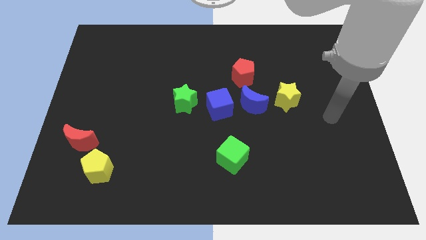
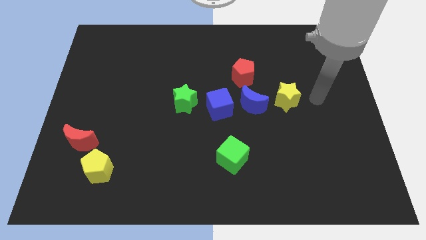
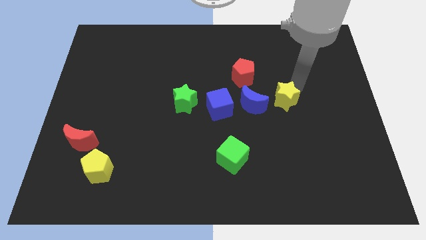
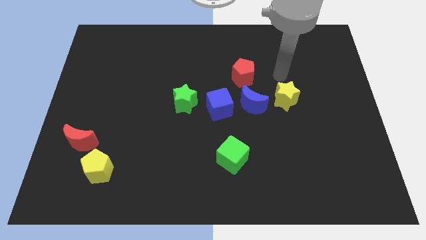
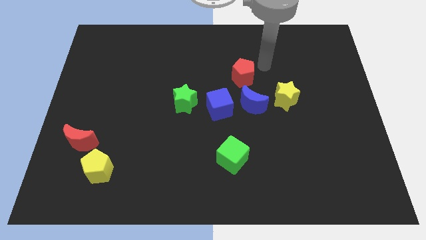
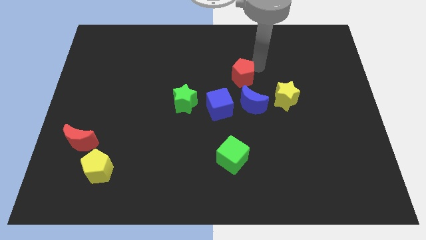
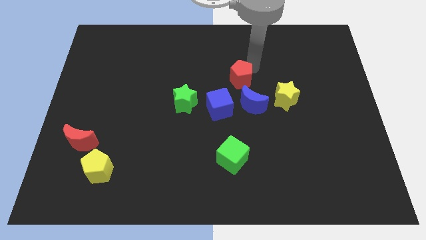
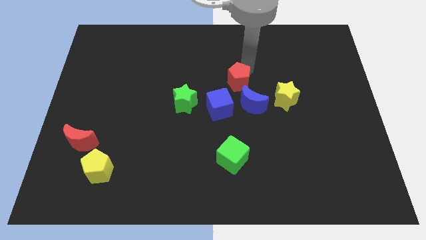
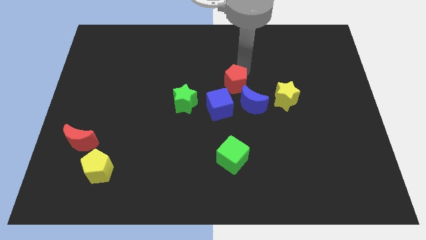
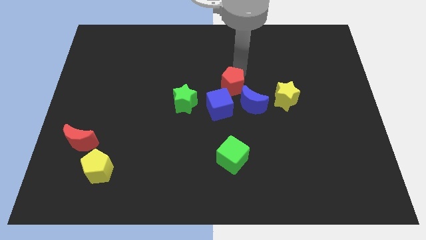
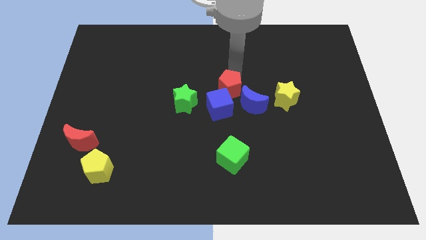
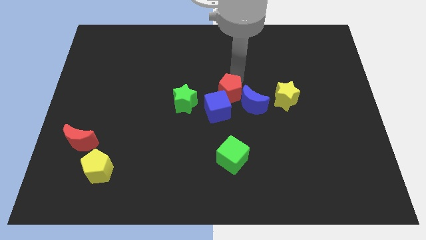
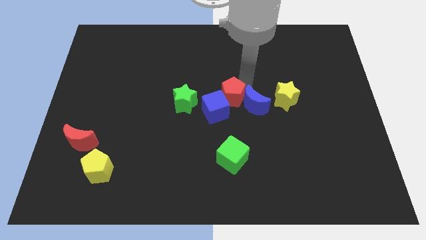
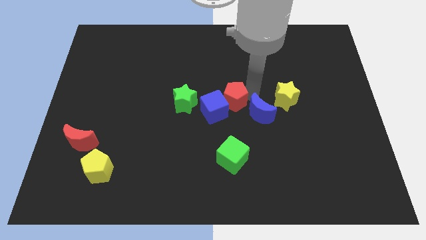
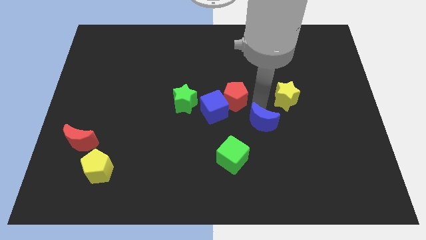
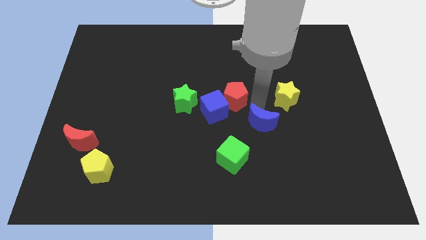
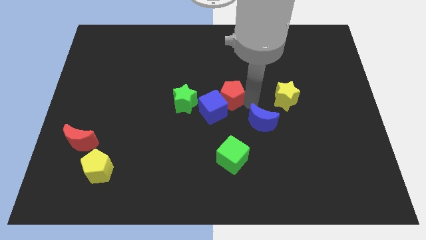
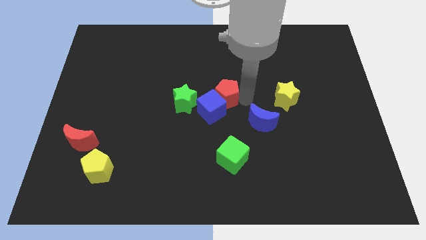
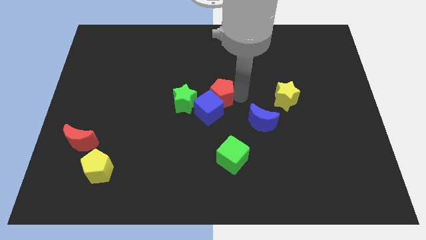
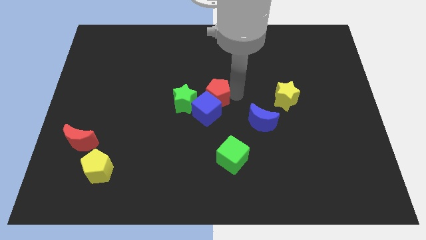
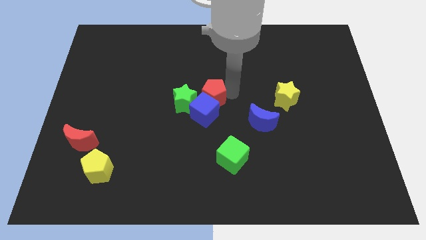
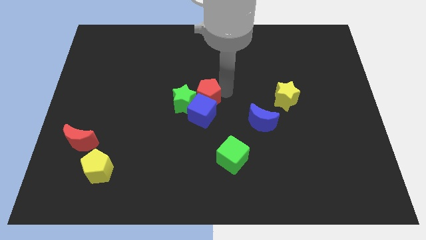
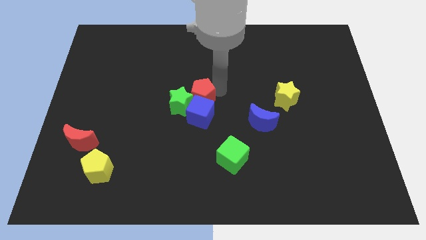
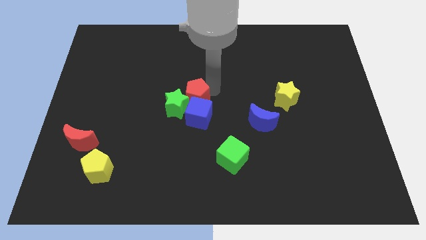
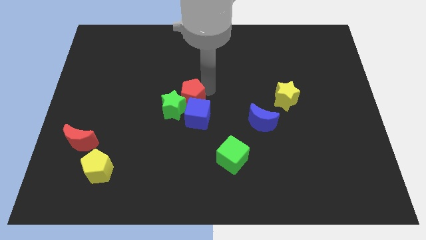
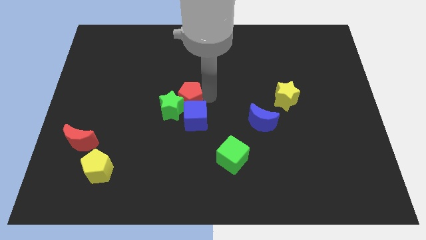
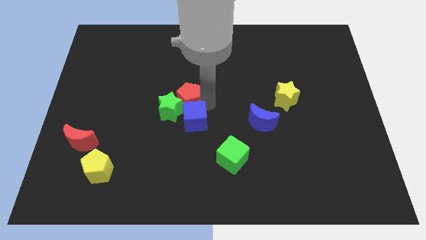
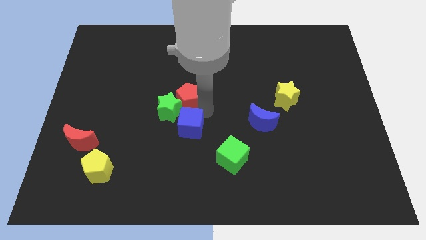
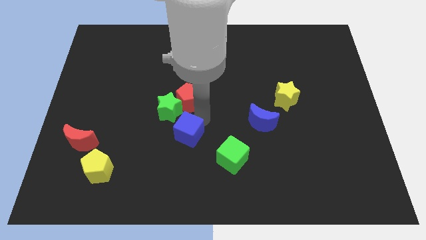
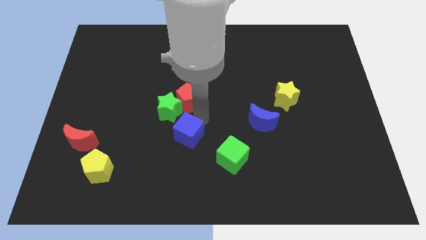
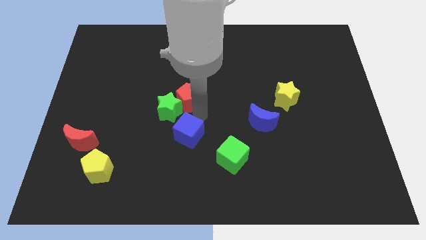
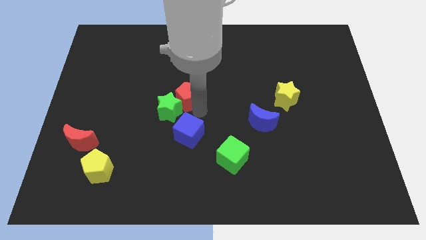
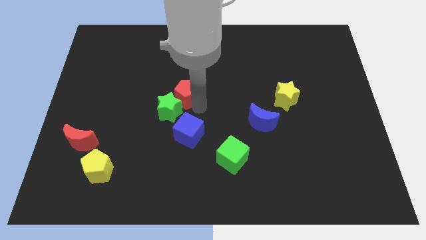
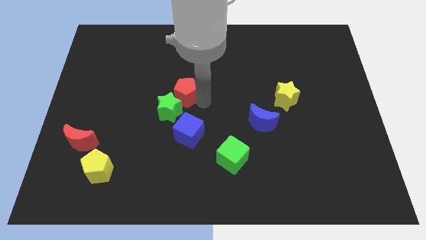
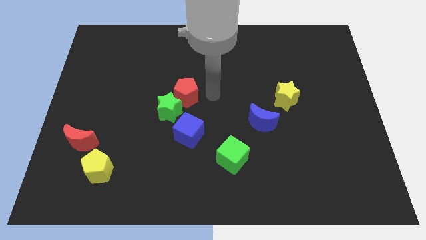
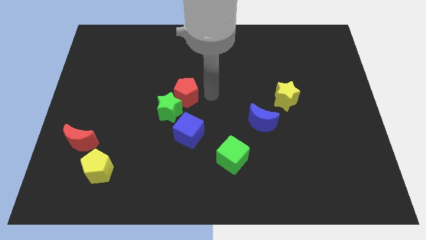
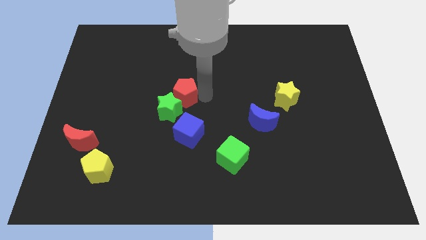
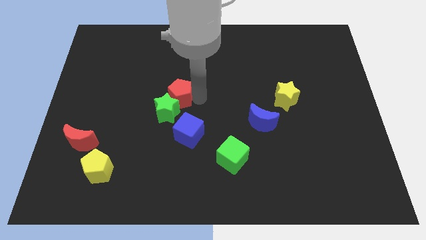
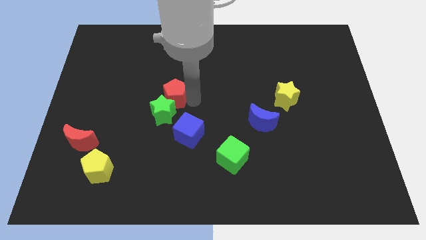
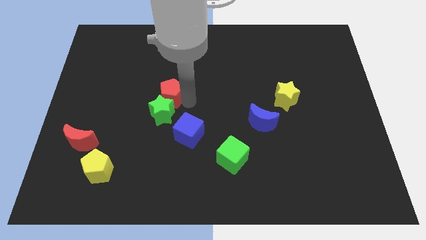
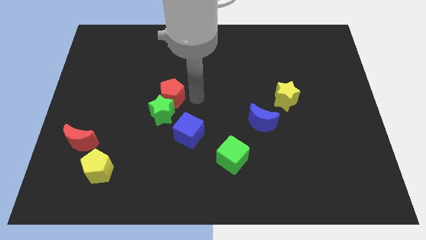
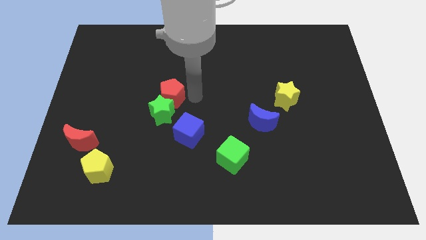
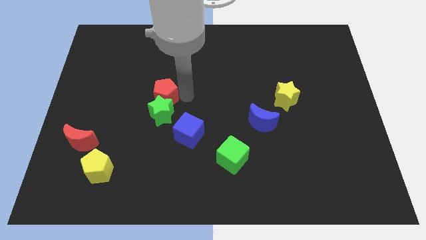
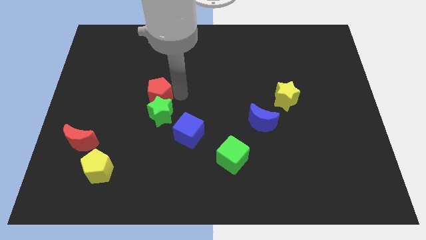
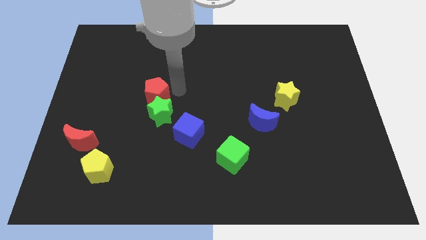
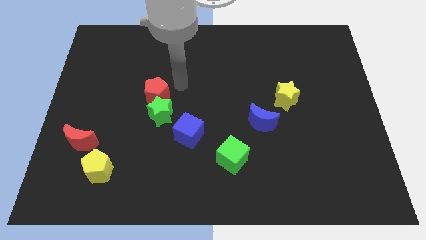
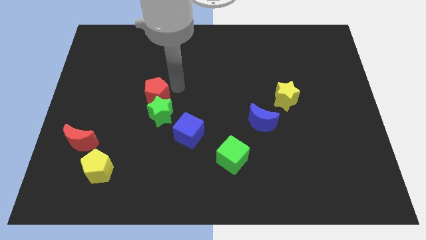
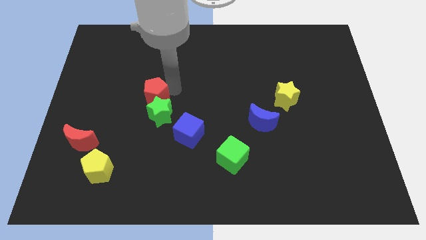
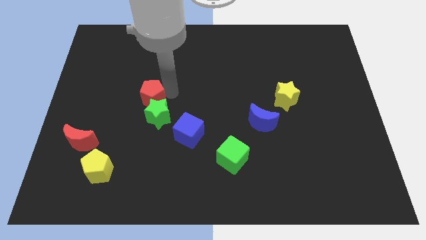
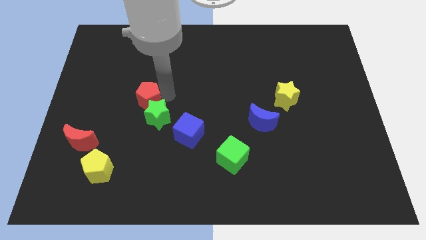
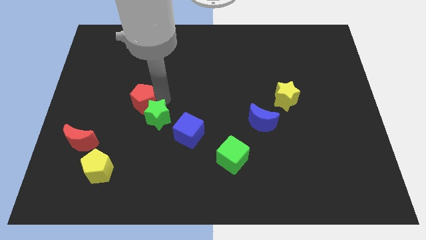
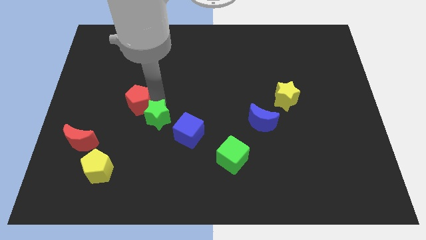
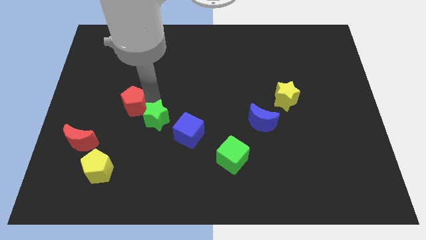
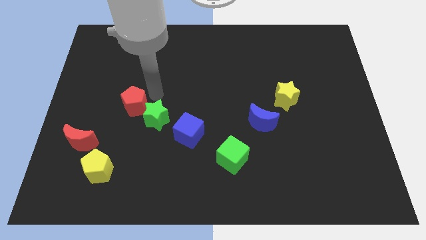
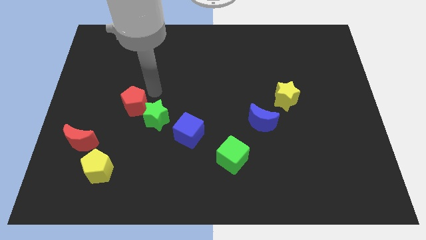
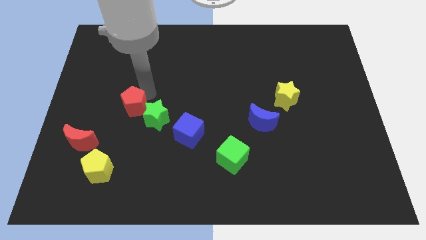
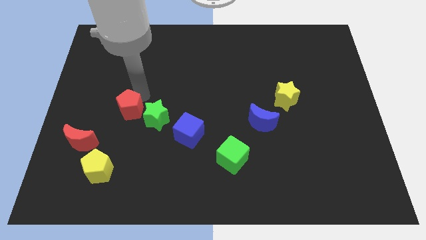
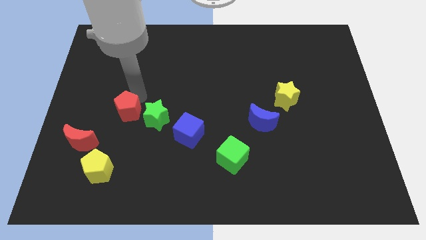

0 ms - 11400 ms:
slide the red pentagon to the top right side of the red moon
